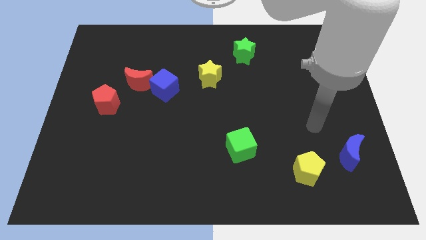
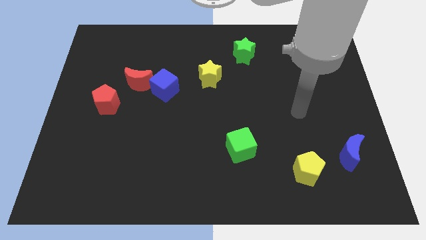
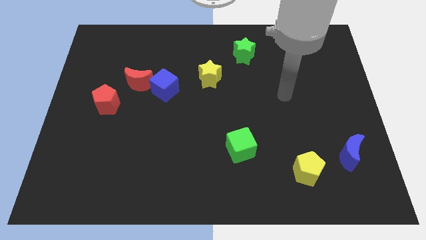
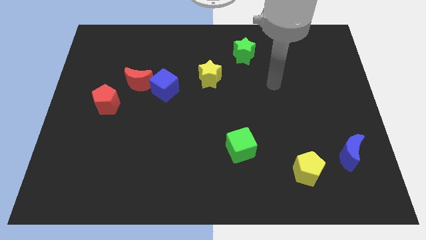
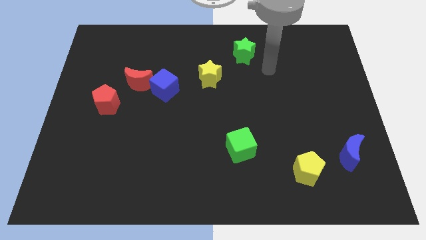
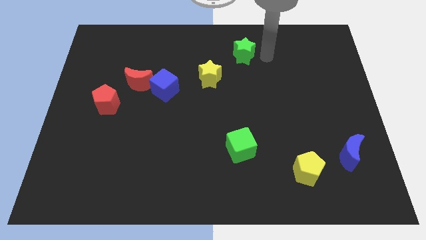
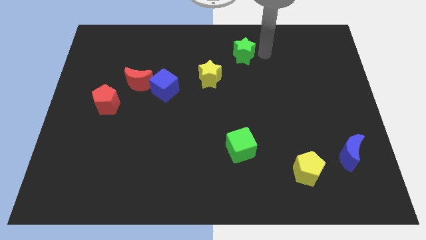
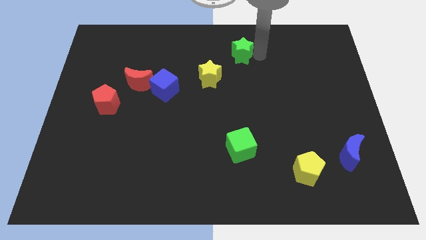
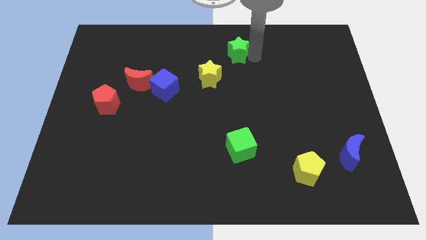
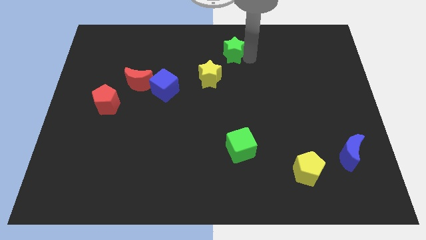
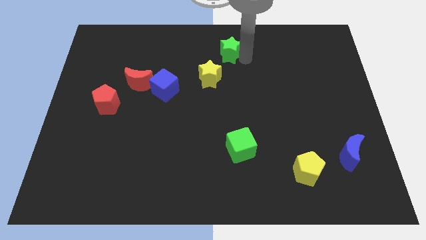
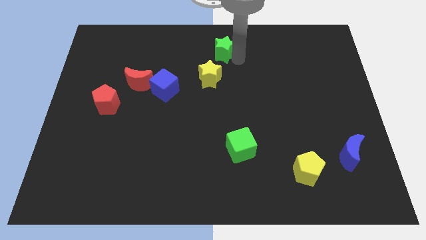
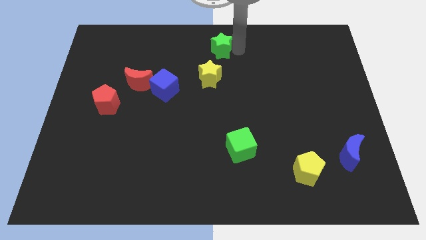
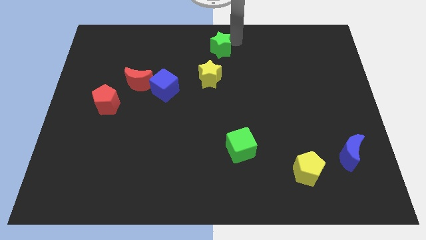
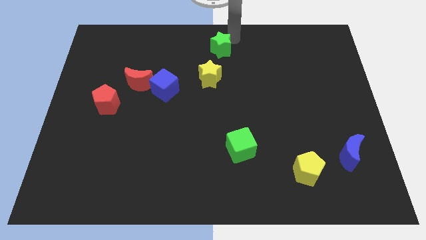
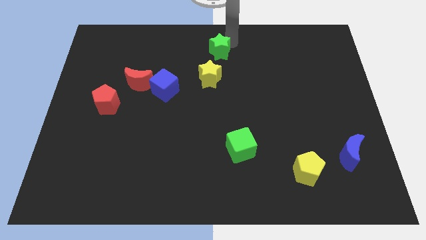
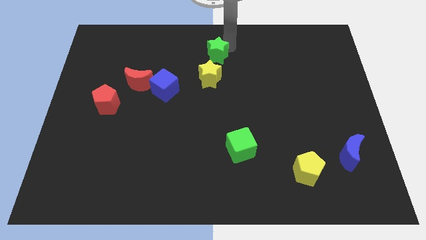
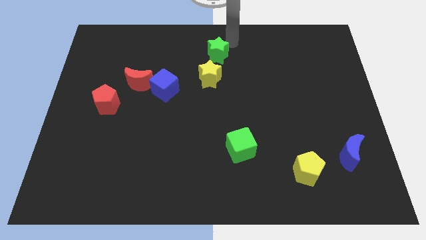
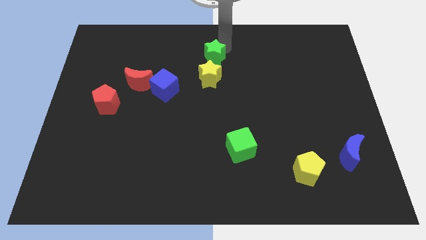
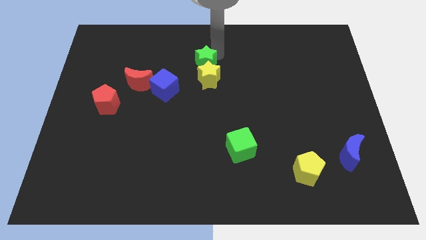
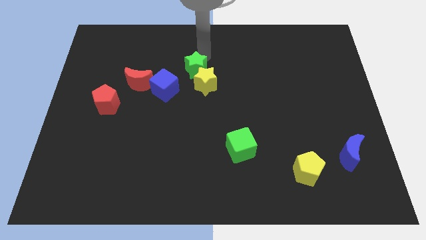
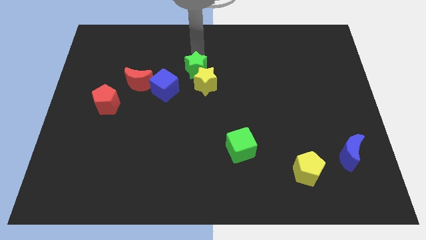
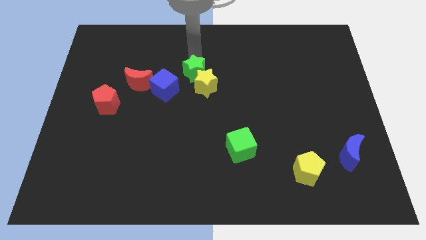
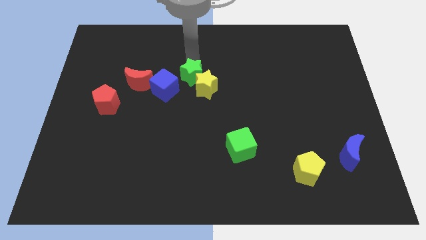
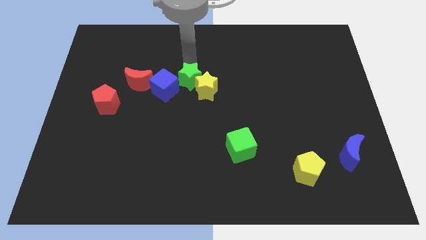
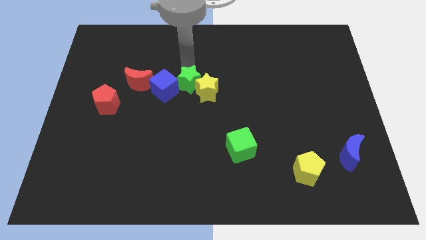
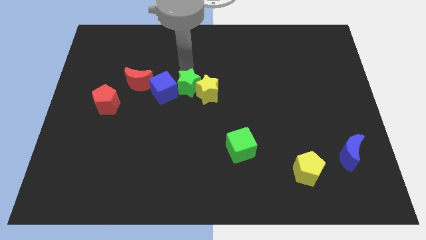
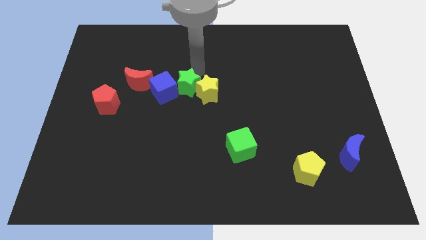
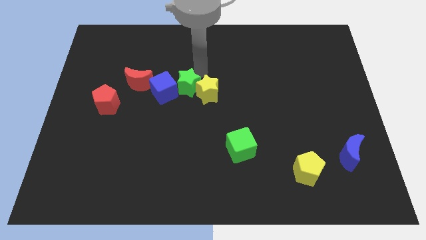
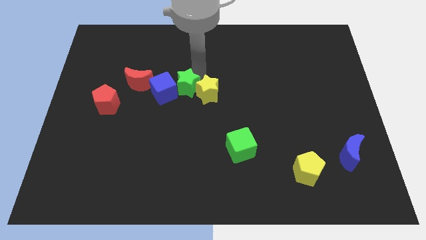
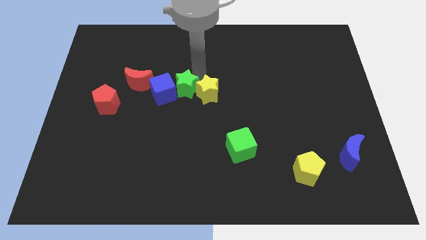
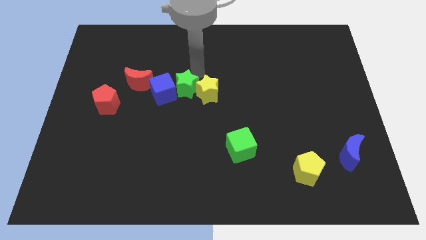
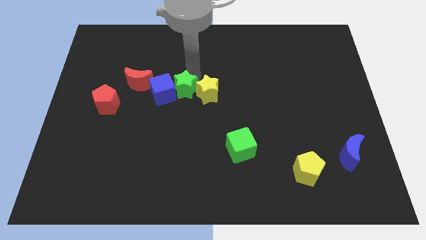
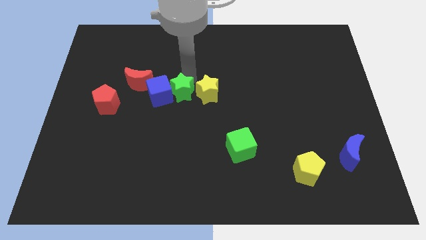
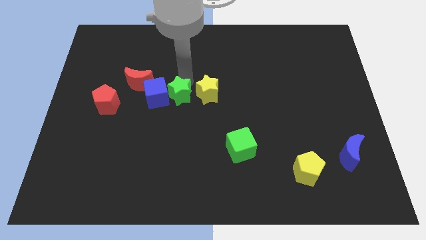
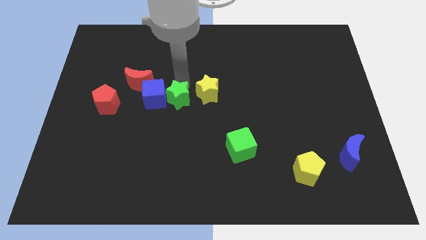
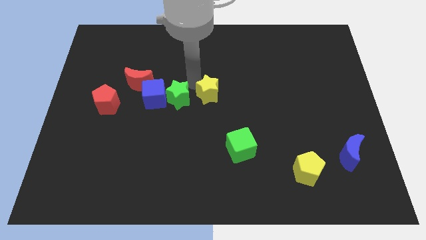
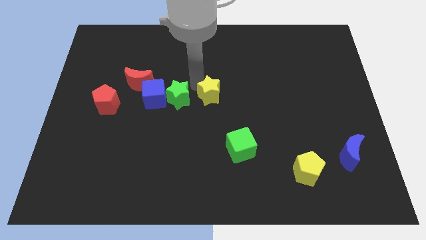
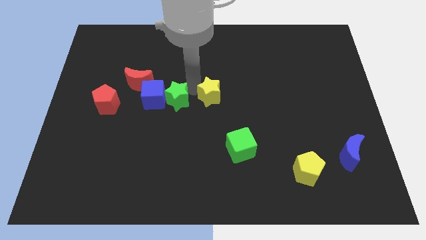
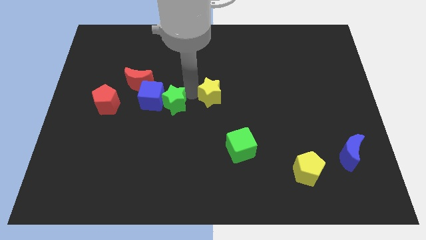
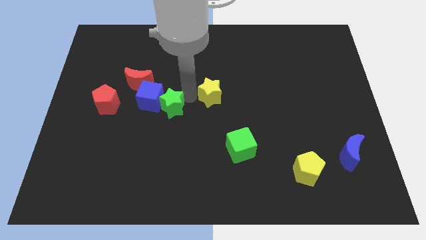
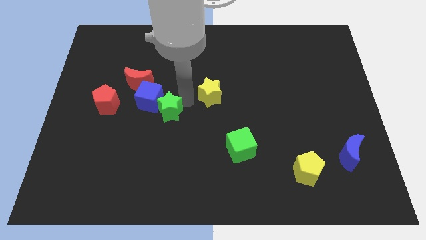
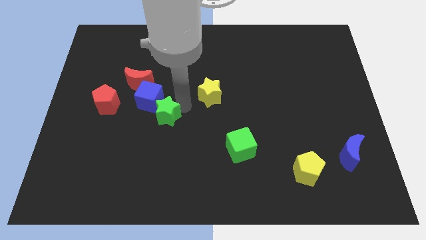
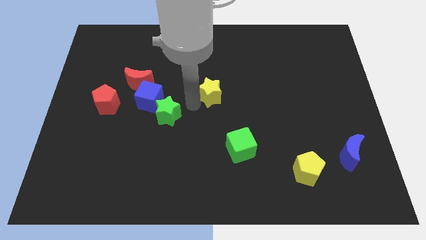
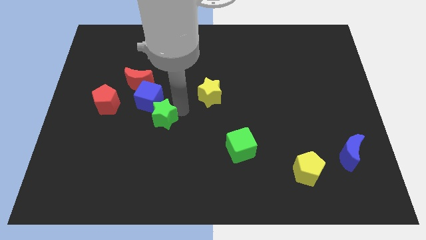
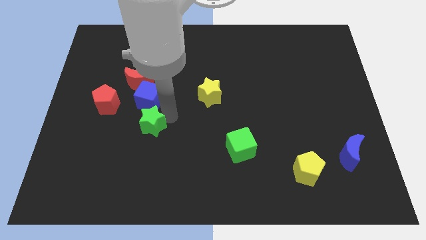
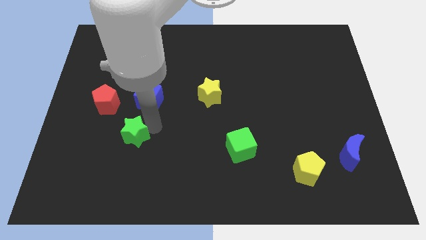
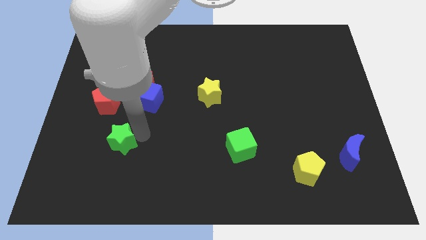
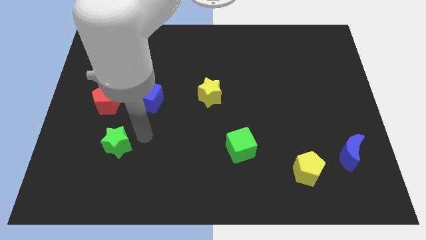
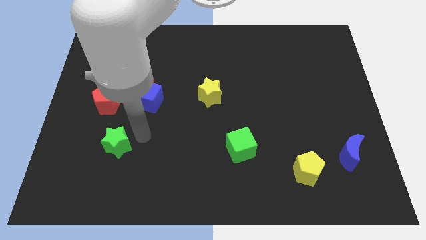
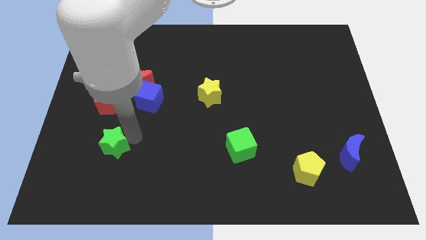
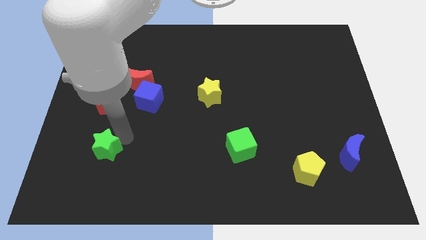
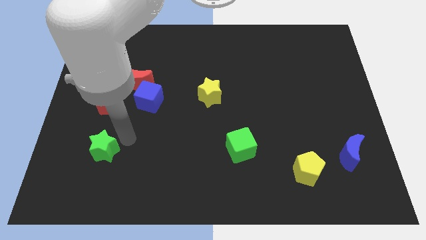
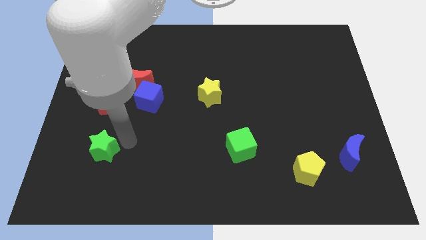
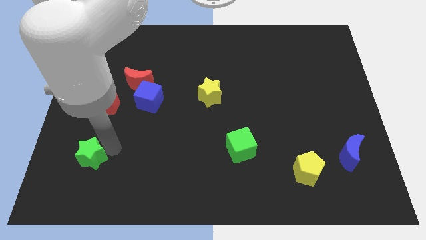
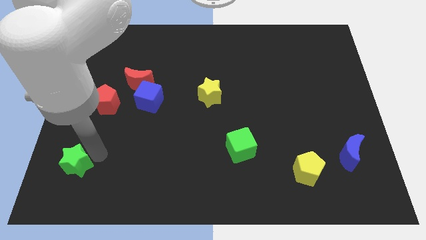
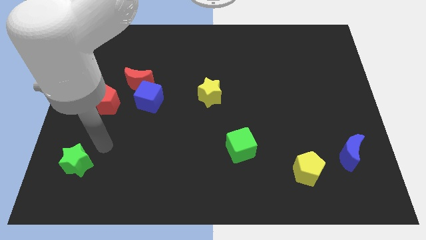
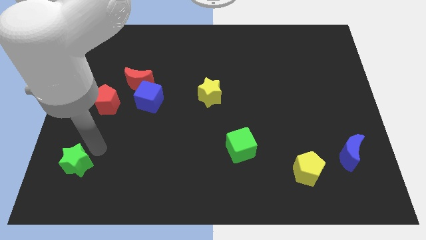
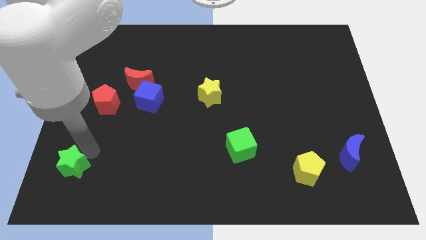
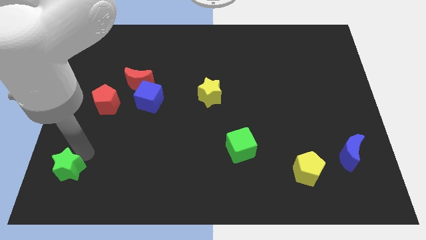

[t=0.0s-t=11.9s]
slide the green star to the bottom left
